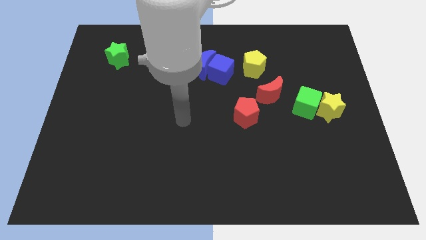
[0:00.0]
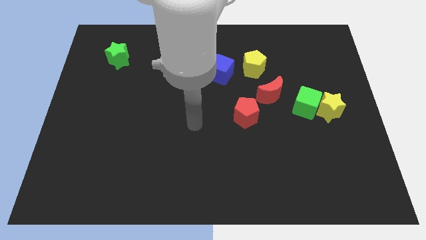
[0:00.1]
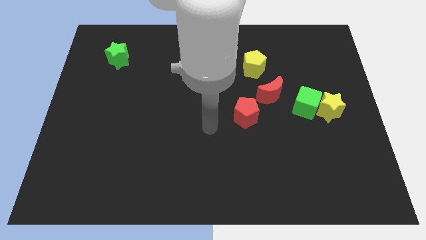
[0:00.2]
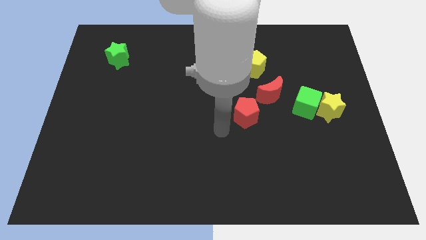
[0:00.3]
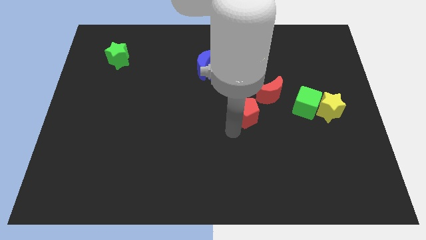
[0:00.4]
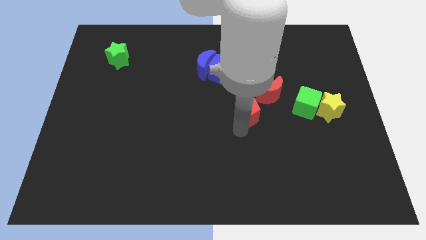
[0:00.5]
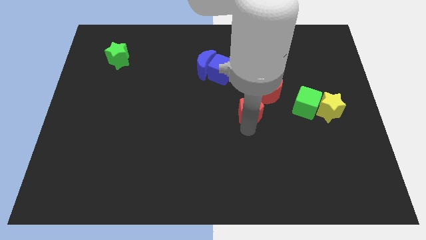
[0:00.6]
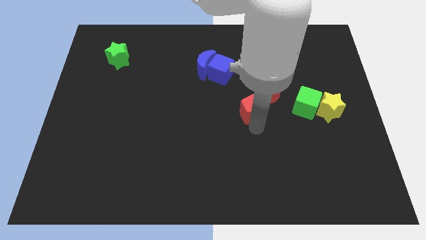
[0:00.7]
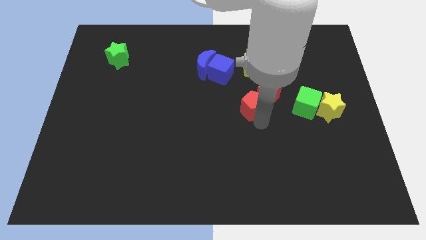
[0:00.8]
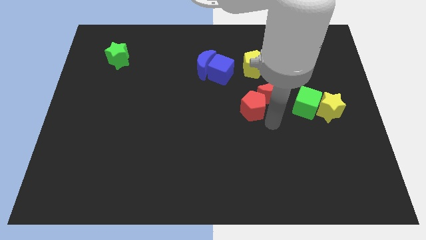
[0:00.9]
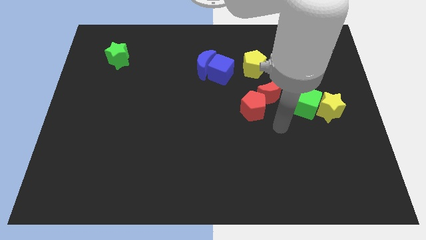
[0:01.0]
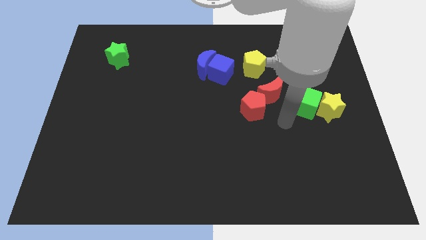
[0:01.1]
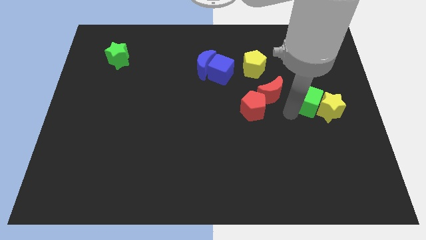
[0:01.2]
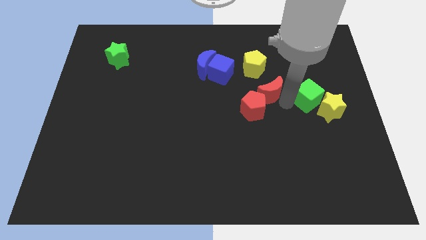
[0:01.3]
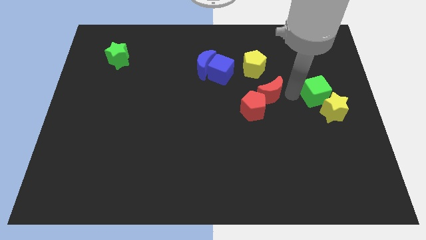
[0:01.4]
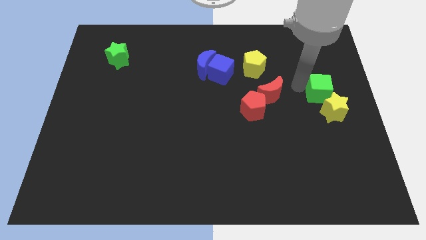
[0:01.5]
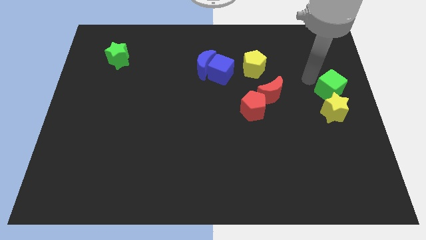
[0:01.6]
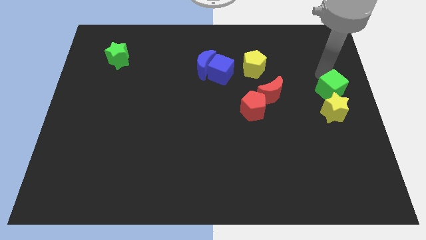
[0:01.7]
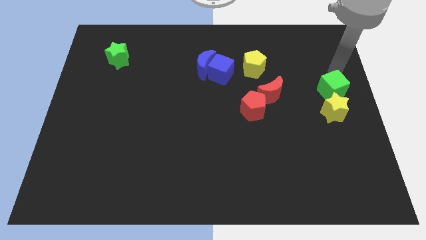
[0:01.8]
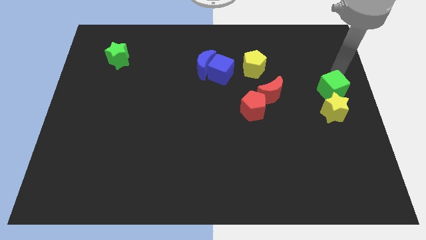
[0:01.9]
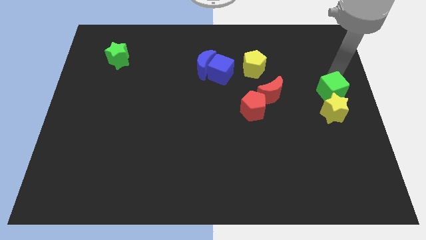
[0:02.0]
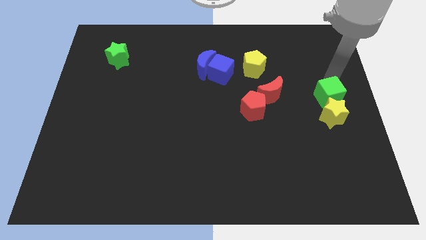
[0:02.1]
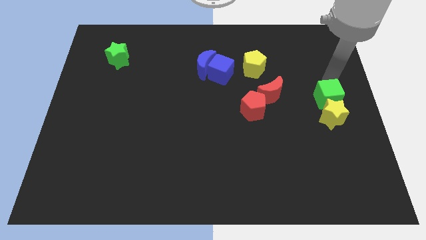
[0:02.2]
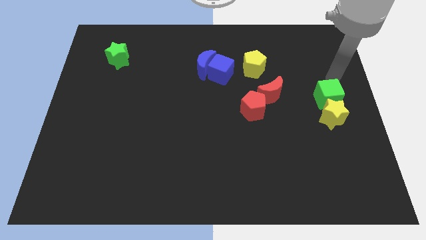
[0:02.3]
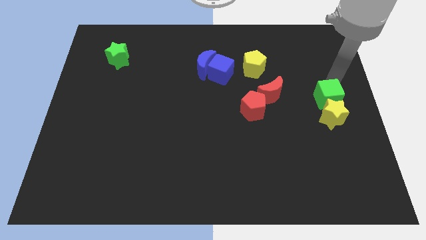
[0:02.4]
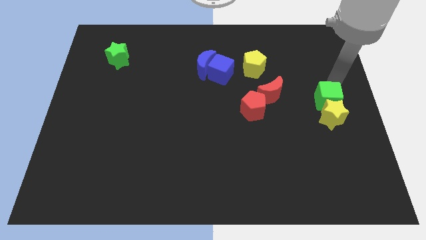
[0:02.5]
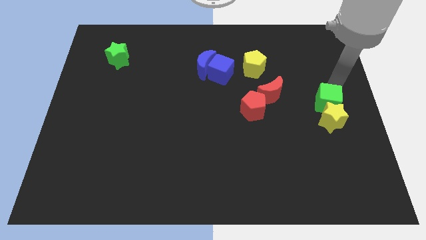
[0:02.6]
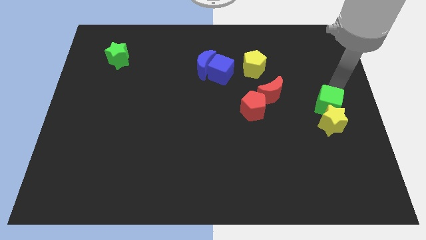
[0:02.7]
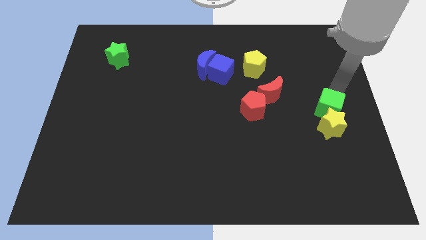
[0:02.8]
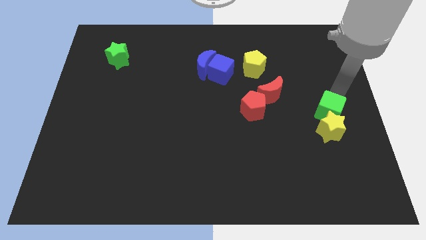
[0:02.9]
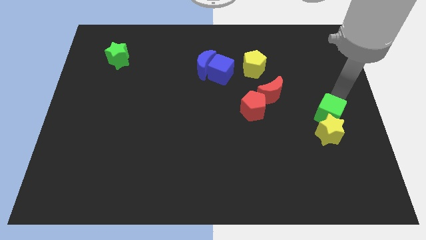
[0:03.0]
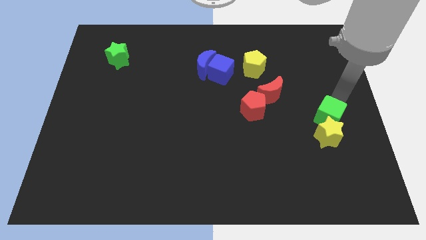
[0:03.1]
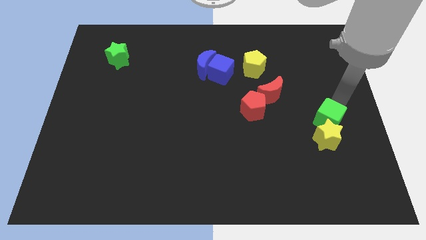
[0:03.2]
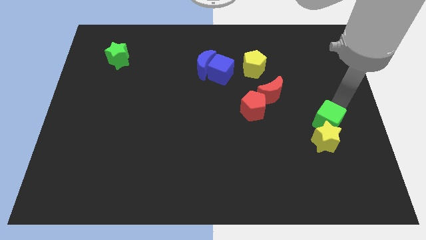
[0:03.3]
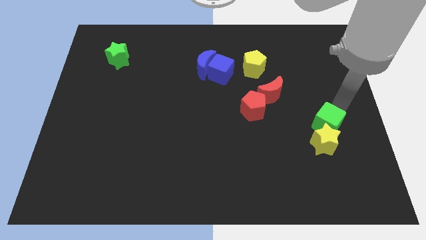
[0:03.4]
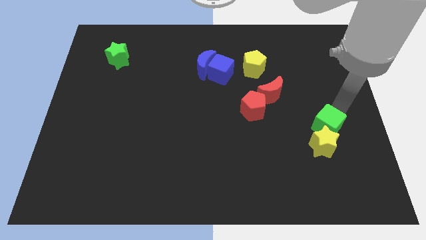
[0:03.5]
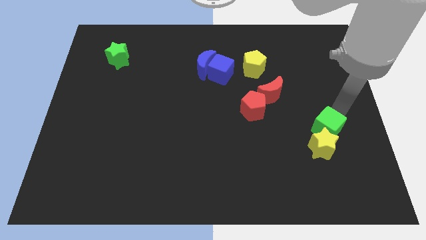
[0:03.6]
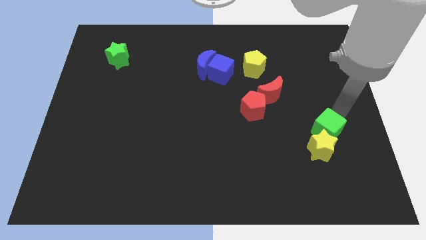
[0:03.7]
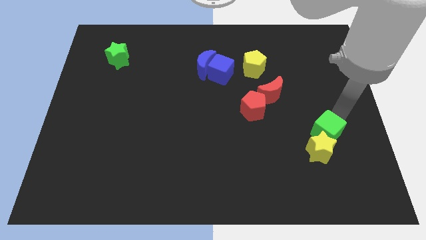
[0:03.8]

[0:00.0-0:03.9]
slightly move the green cube down

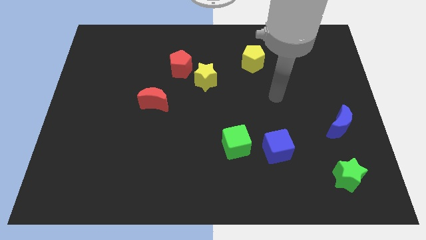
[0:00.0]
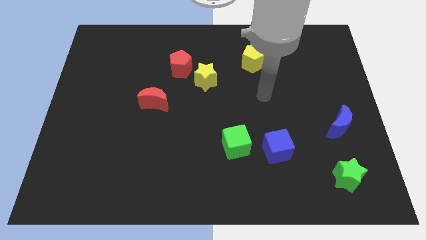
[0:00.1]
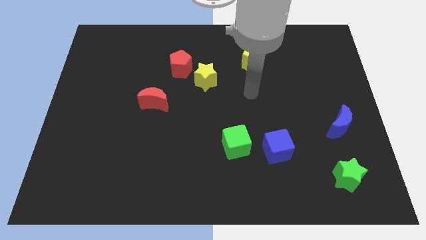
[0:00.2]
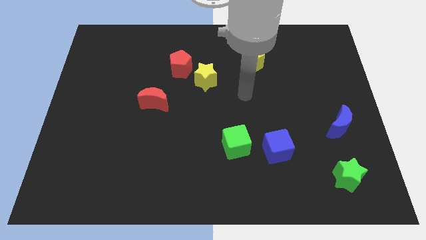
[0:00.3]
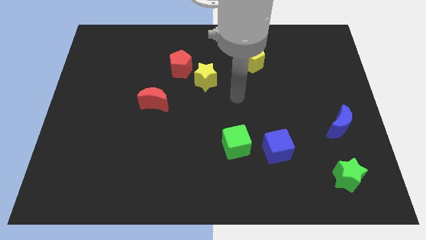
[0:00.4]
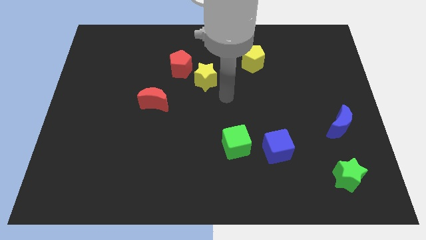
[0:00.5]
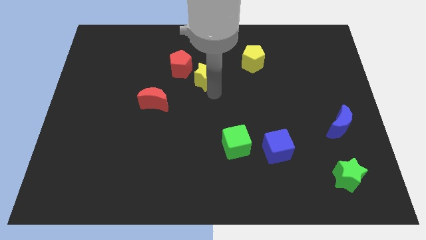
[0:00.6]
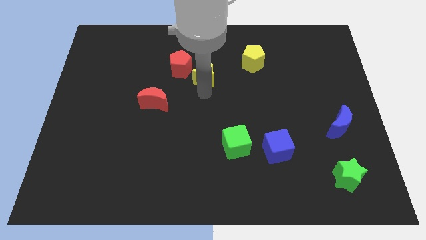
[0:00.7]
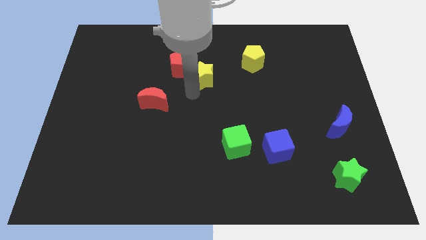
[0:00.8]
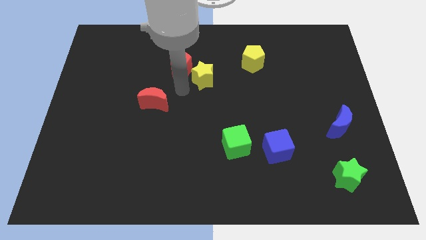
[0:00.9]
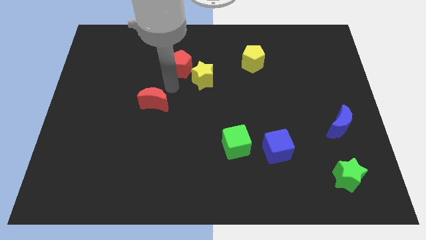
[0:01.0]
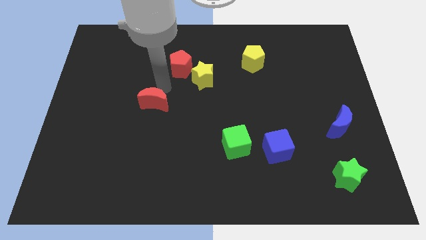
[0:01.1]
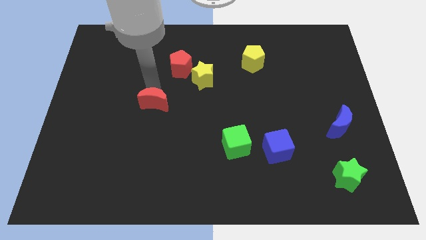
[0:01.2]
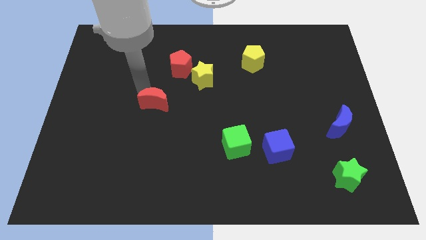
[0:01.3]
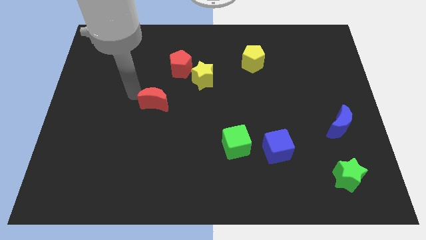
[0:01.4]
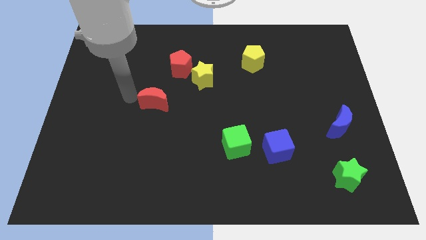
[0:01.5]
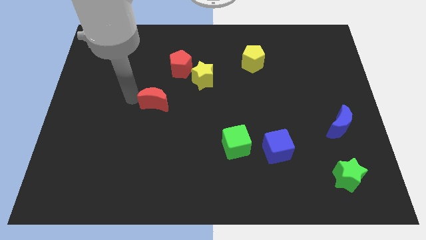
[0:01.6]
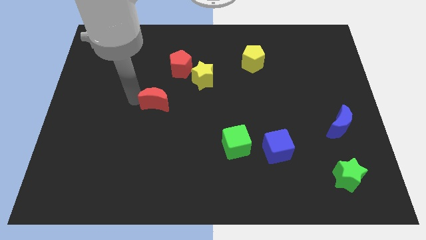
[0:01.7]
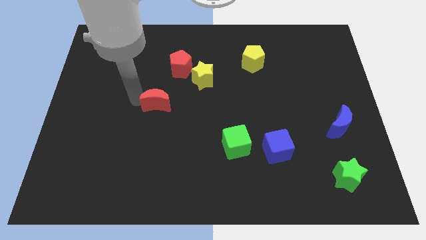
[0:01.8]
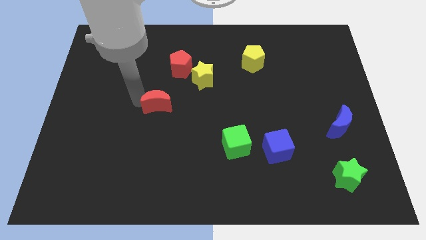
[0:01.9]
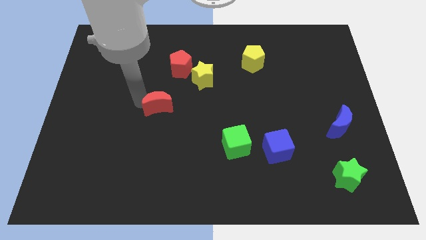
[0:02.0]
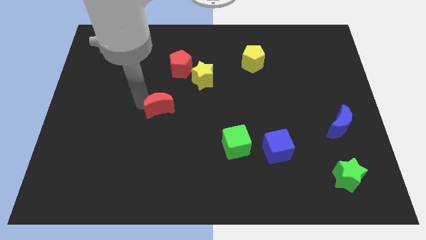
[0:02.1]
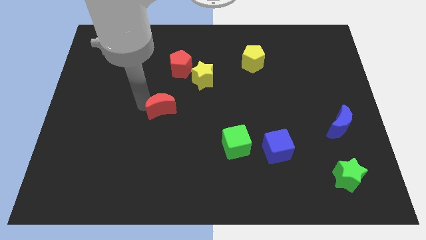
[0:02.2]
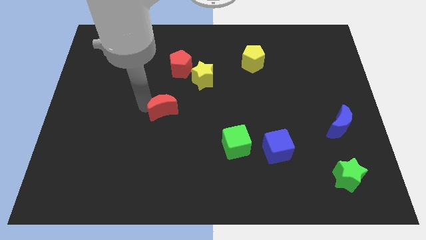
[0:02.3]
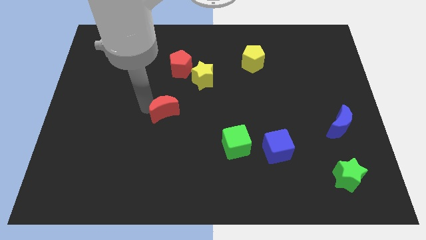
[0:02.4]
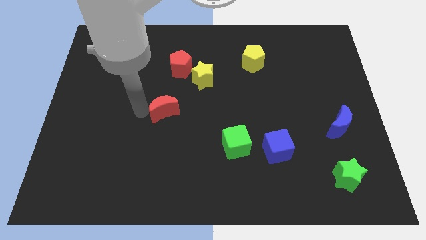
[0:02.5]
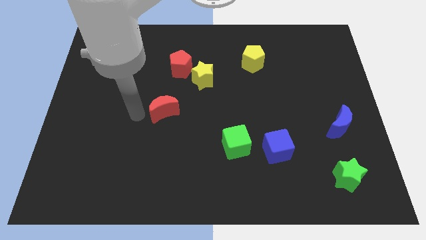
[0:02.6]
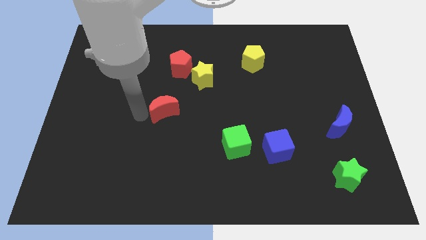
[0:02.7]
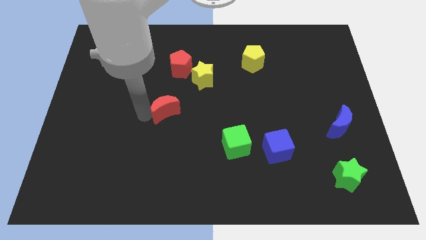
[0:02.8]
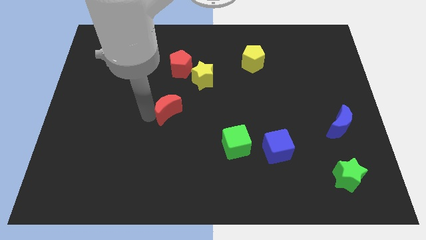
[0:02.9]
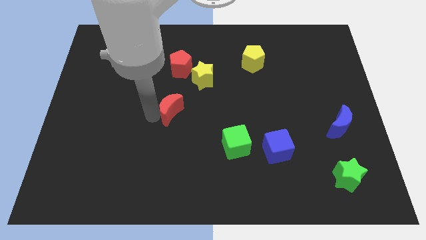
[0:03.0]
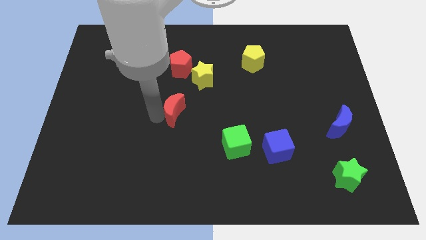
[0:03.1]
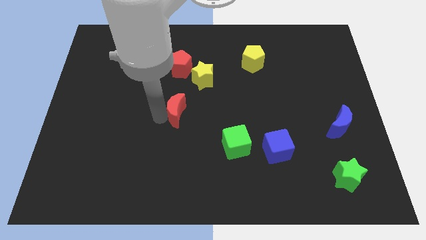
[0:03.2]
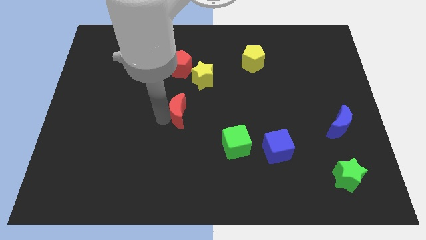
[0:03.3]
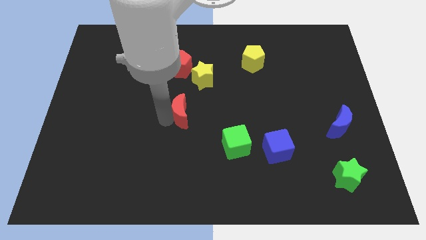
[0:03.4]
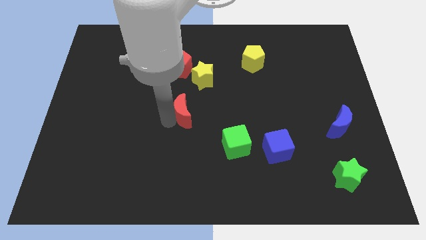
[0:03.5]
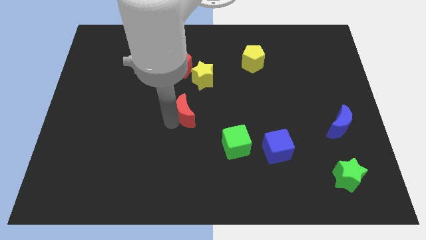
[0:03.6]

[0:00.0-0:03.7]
push the red moon a little bit to the right

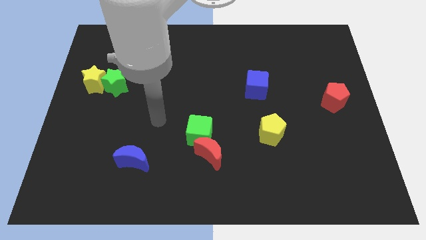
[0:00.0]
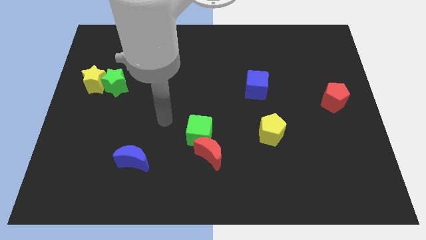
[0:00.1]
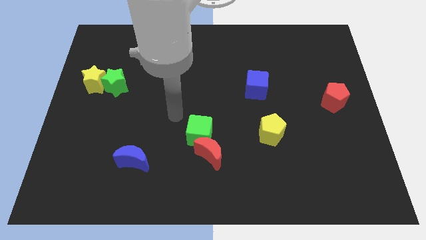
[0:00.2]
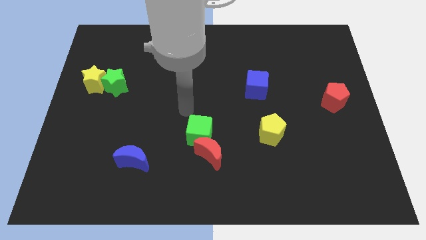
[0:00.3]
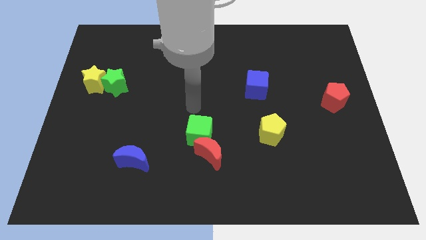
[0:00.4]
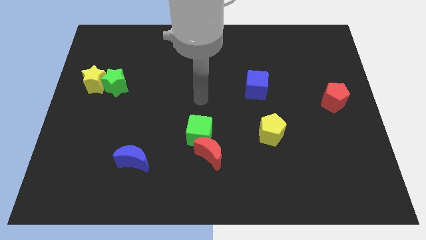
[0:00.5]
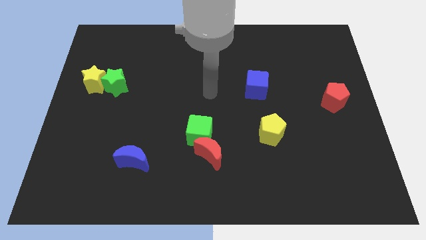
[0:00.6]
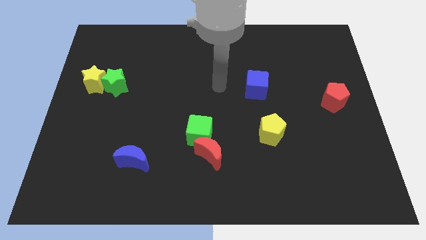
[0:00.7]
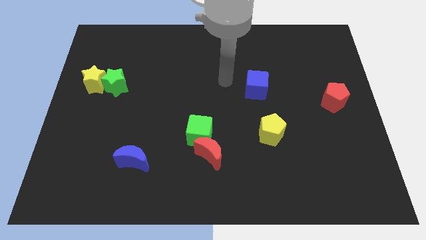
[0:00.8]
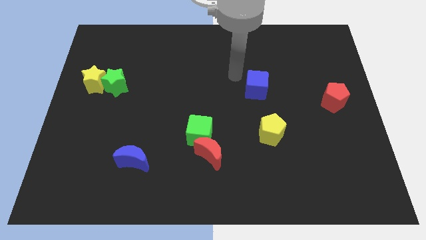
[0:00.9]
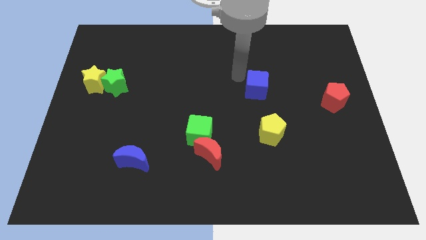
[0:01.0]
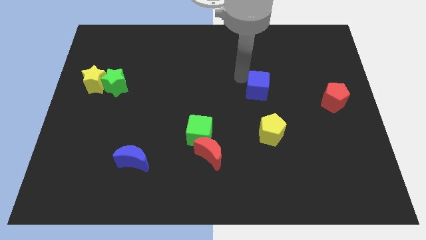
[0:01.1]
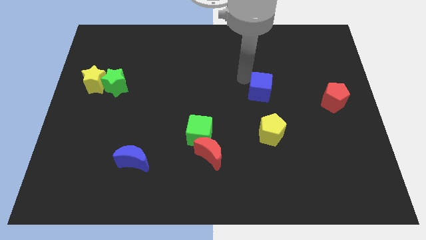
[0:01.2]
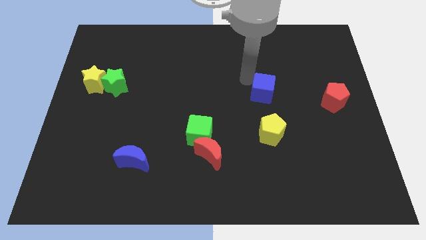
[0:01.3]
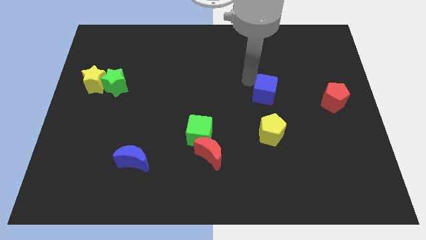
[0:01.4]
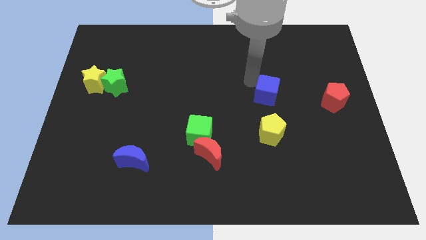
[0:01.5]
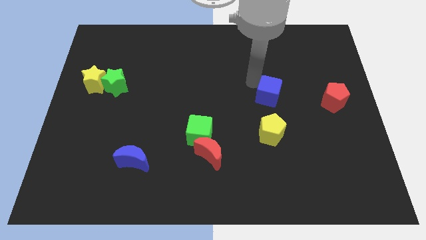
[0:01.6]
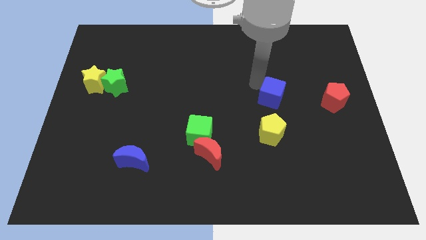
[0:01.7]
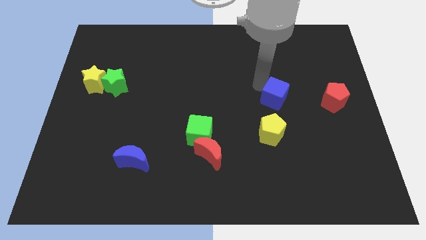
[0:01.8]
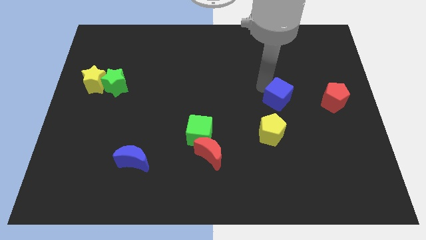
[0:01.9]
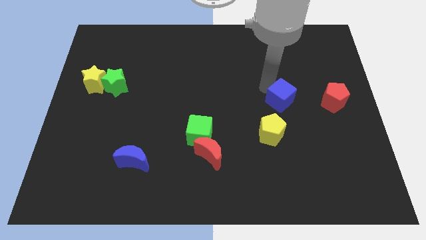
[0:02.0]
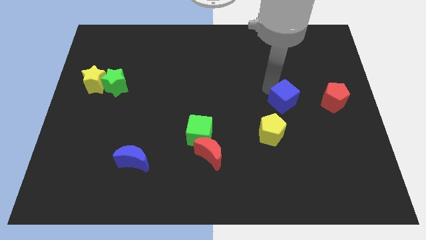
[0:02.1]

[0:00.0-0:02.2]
move the blue cube somewhat downwards and right diagonally
